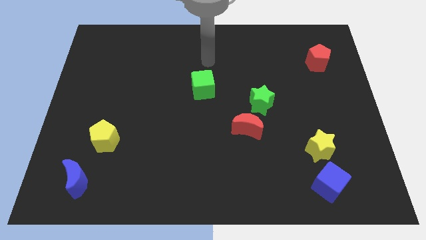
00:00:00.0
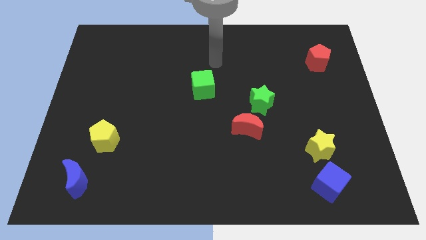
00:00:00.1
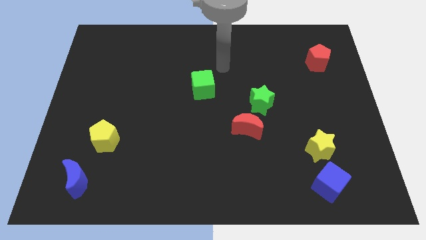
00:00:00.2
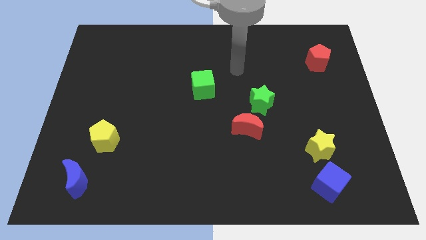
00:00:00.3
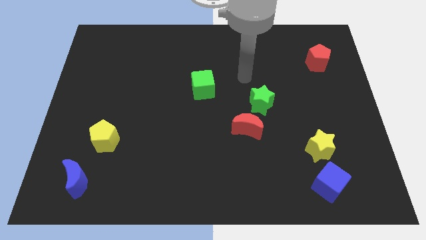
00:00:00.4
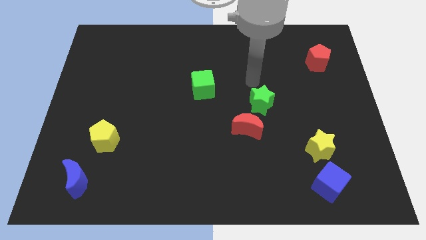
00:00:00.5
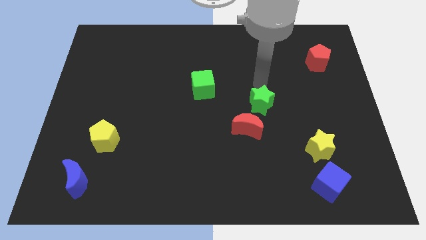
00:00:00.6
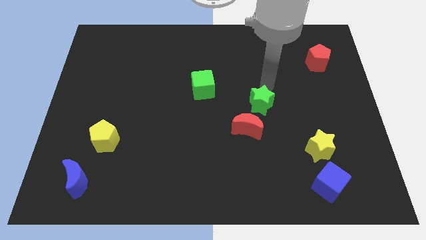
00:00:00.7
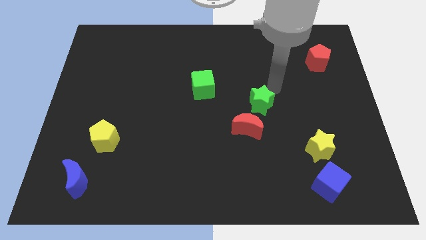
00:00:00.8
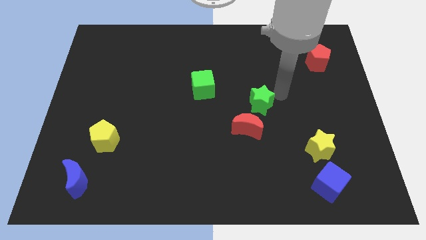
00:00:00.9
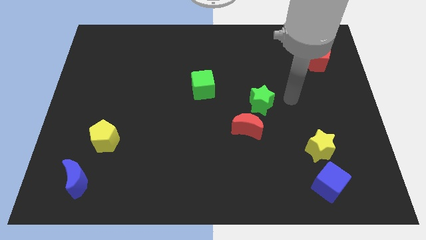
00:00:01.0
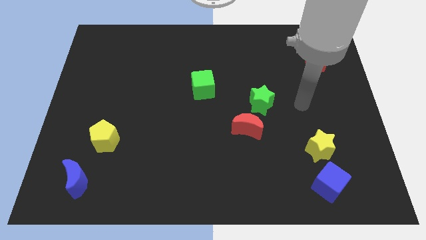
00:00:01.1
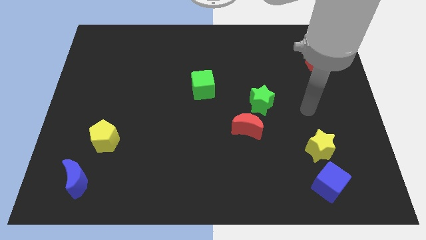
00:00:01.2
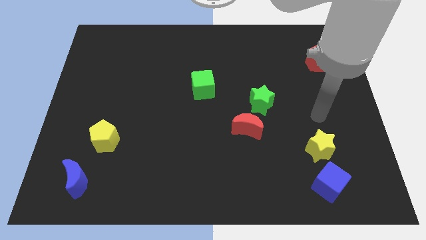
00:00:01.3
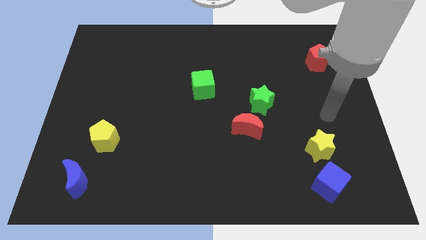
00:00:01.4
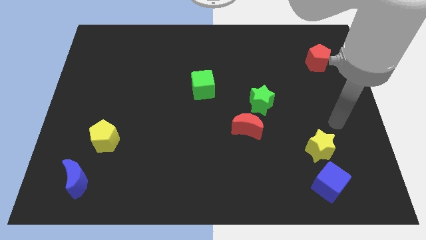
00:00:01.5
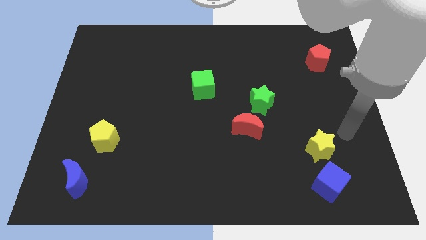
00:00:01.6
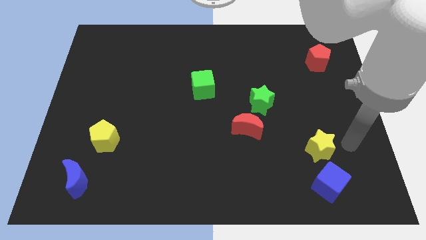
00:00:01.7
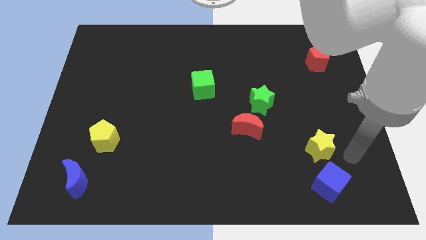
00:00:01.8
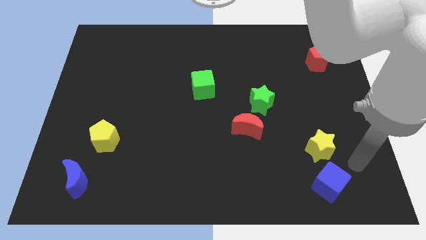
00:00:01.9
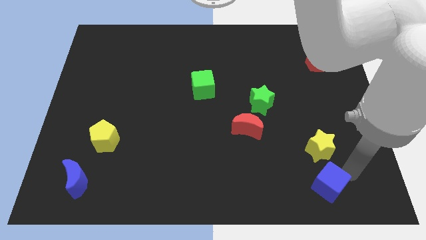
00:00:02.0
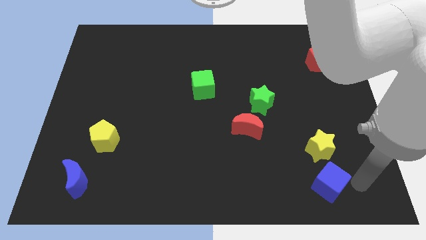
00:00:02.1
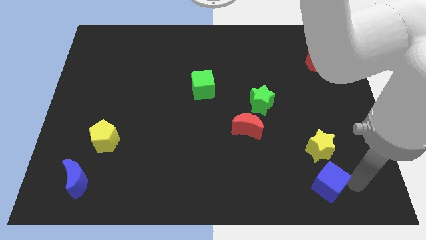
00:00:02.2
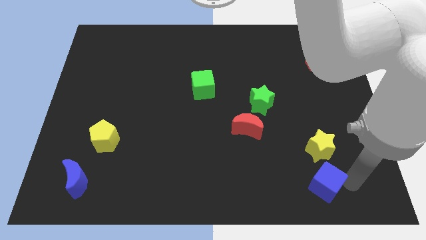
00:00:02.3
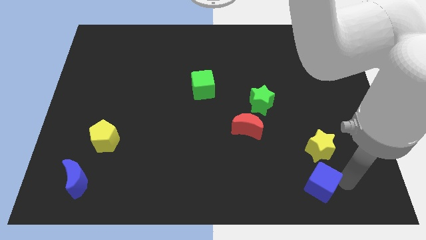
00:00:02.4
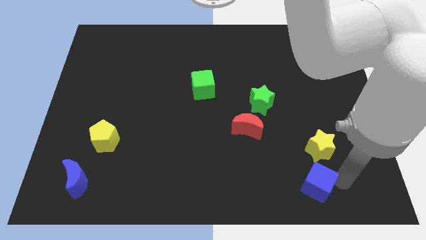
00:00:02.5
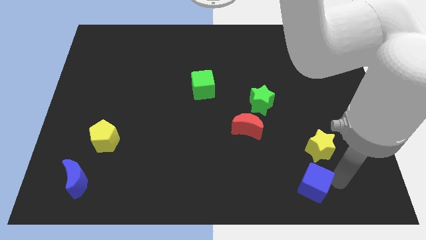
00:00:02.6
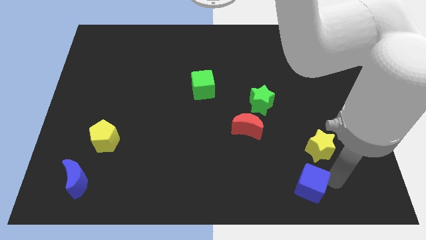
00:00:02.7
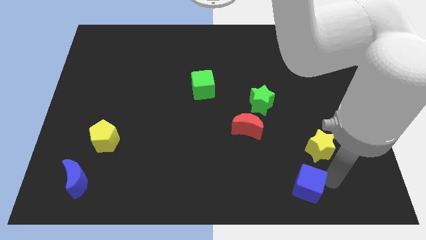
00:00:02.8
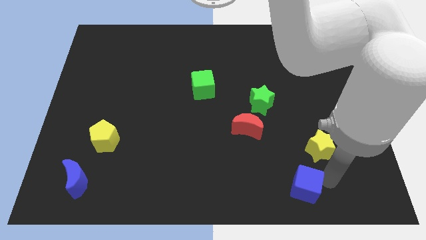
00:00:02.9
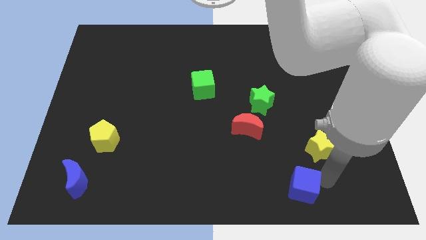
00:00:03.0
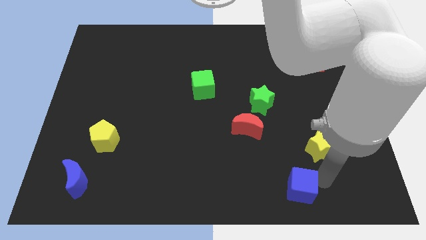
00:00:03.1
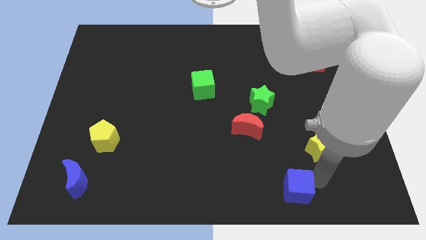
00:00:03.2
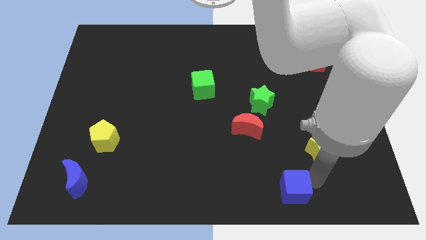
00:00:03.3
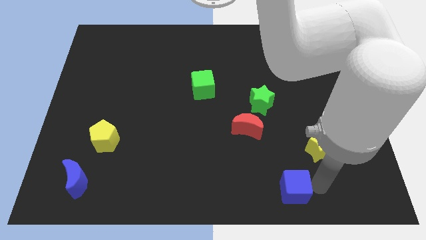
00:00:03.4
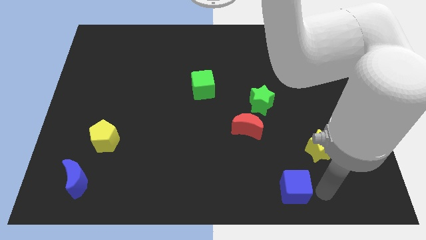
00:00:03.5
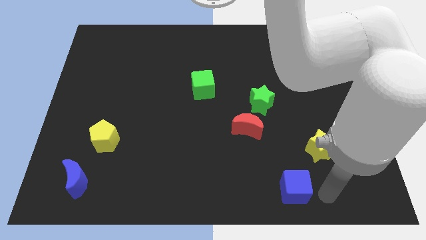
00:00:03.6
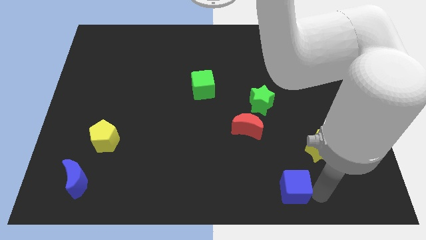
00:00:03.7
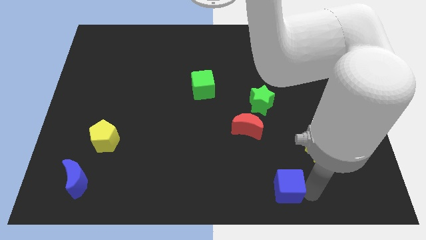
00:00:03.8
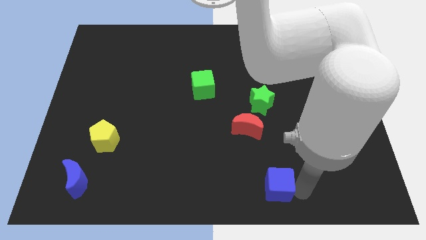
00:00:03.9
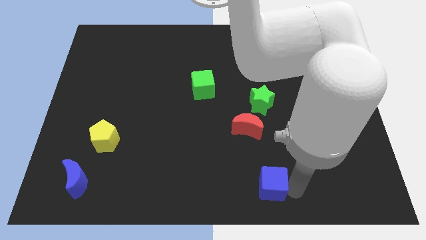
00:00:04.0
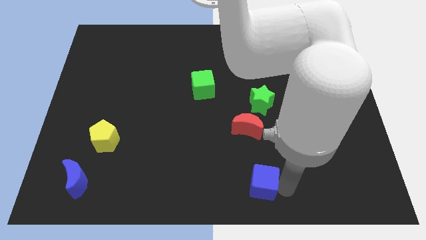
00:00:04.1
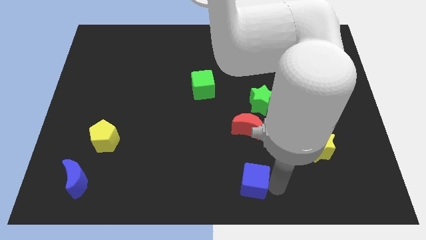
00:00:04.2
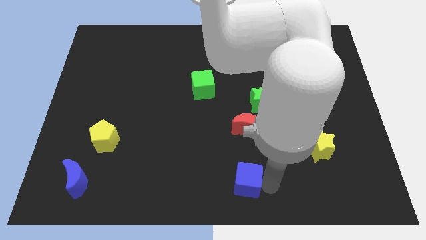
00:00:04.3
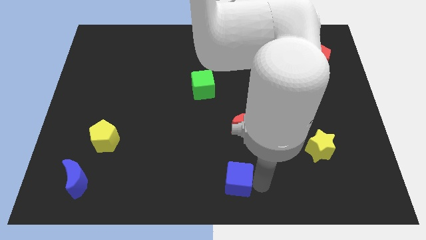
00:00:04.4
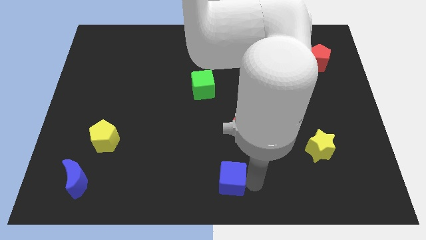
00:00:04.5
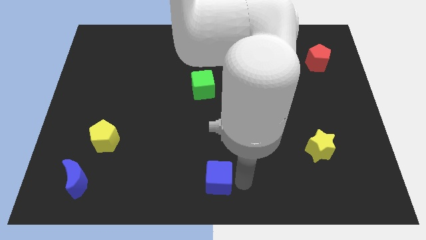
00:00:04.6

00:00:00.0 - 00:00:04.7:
slide the blue cube to the left

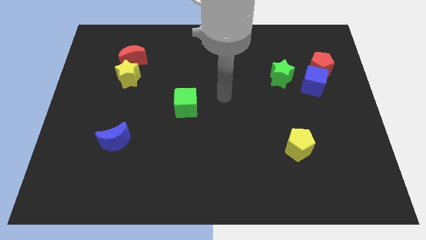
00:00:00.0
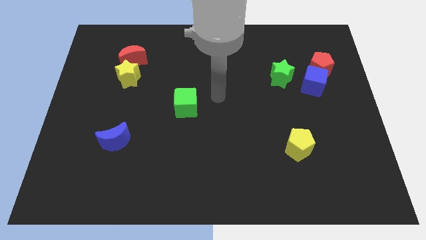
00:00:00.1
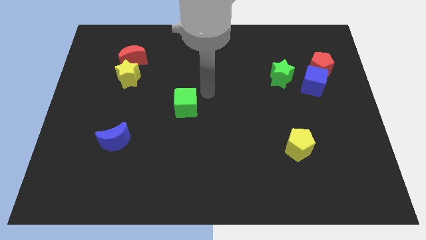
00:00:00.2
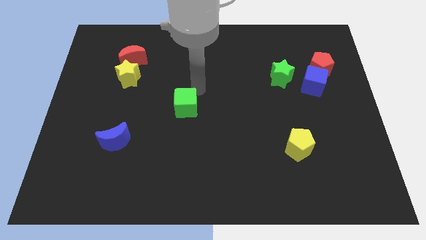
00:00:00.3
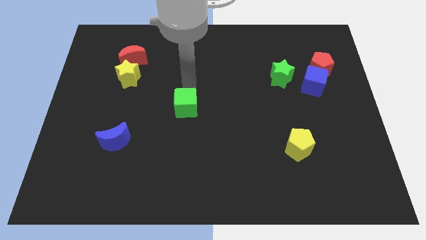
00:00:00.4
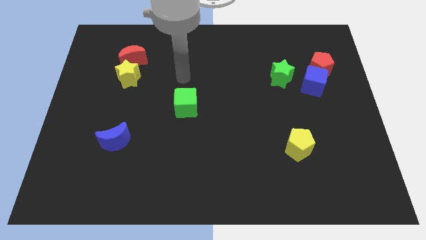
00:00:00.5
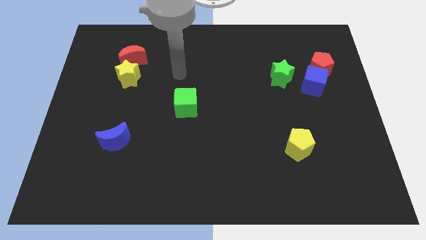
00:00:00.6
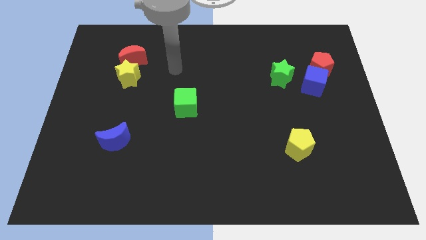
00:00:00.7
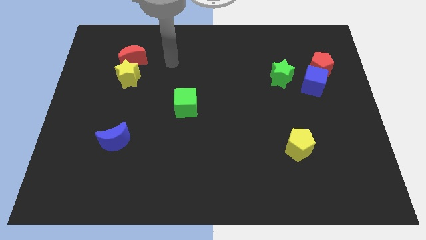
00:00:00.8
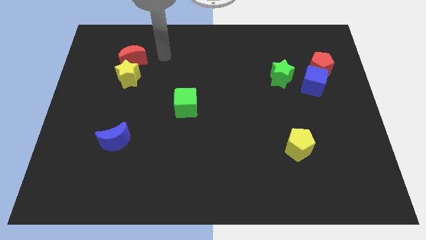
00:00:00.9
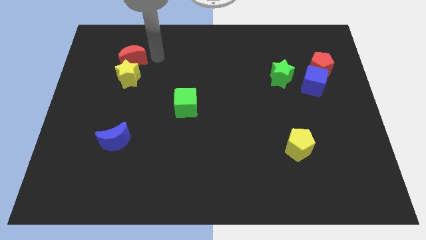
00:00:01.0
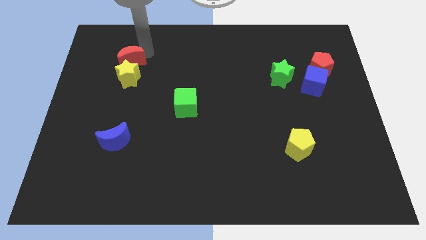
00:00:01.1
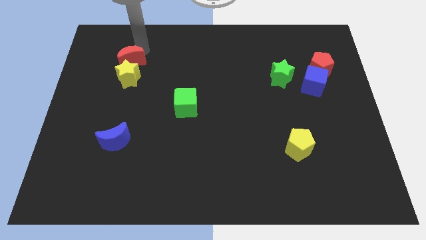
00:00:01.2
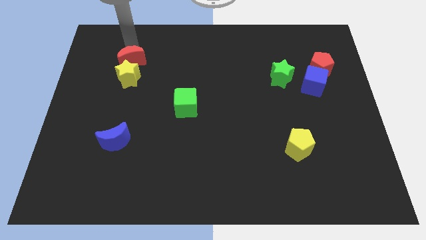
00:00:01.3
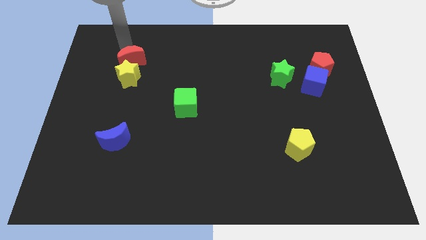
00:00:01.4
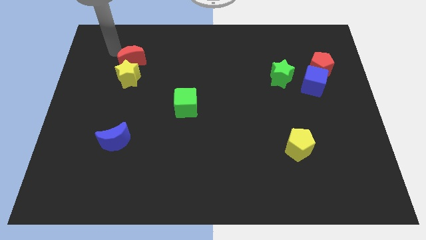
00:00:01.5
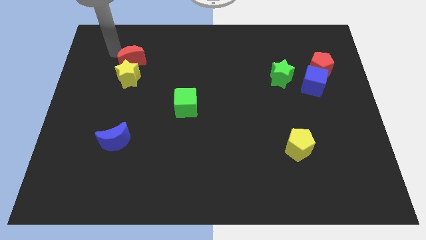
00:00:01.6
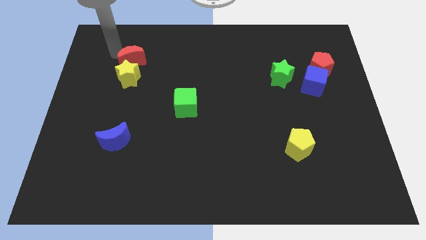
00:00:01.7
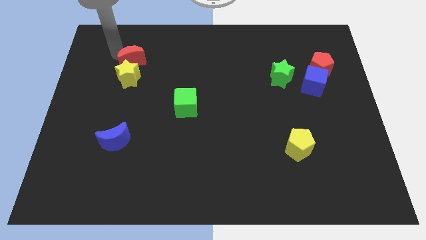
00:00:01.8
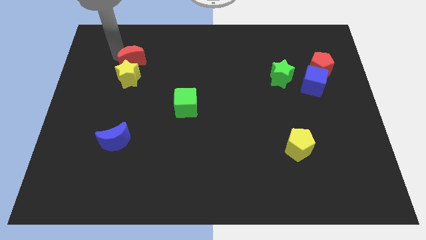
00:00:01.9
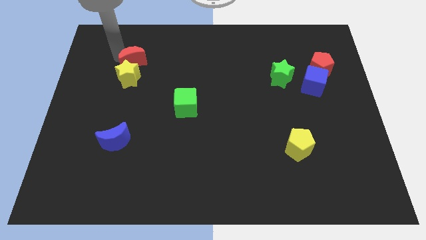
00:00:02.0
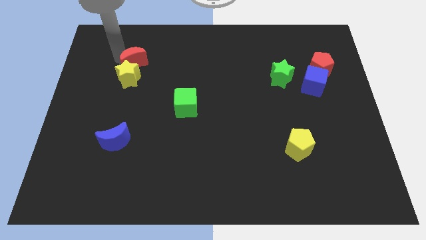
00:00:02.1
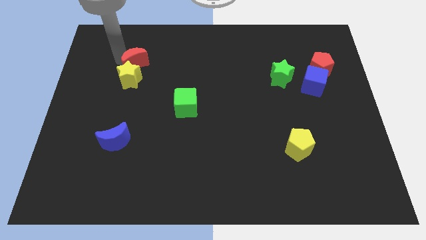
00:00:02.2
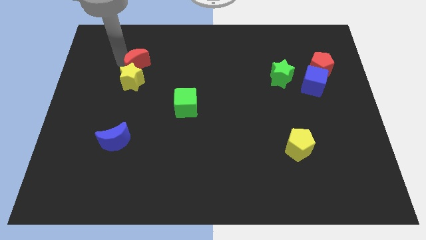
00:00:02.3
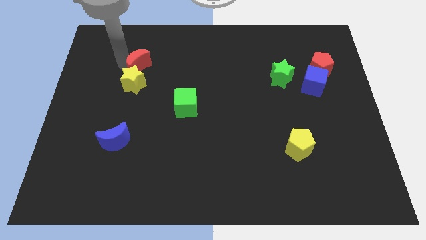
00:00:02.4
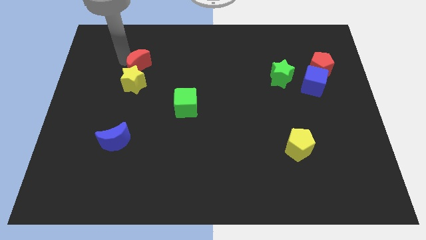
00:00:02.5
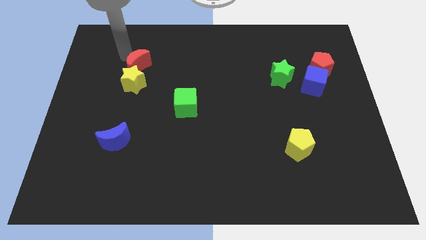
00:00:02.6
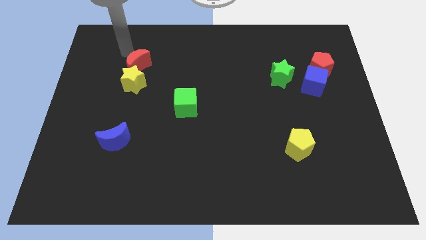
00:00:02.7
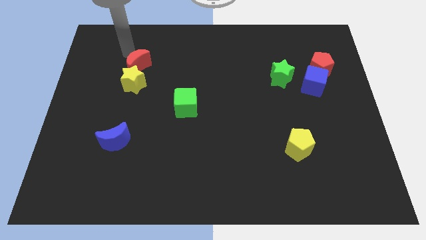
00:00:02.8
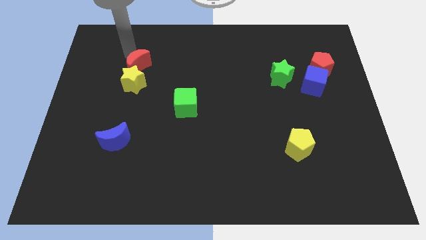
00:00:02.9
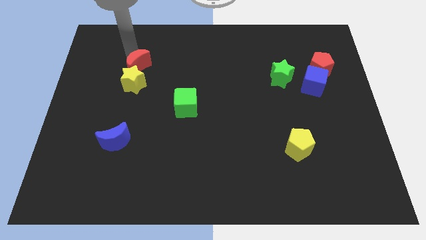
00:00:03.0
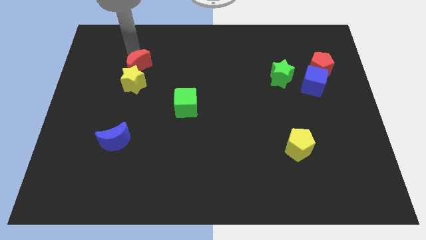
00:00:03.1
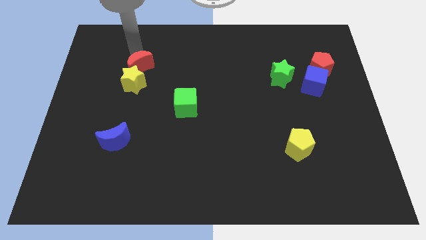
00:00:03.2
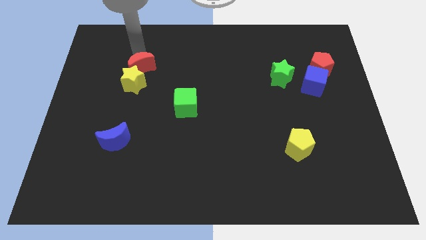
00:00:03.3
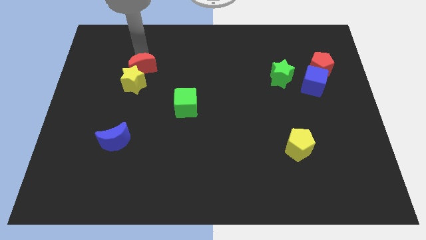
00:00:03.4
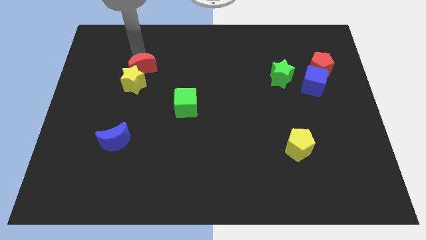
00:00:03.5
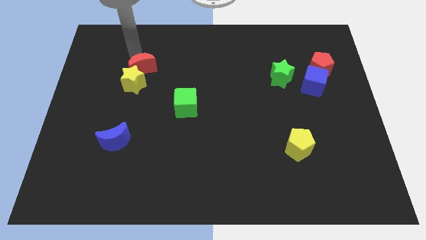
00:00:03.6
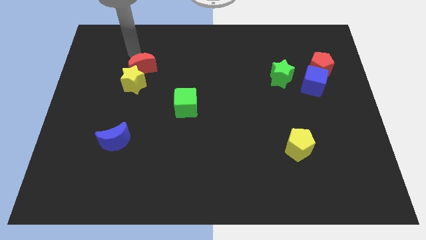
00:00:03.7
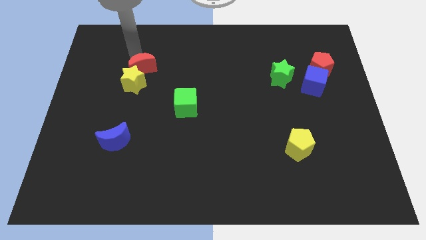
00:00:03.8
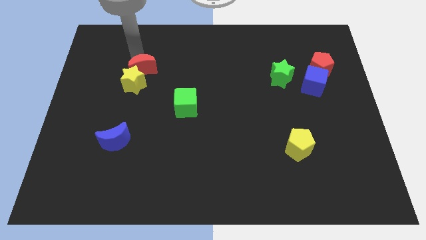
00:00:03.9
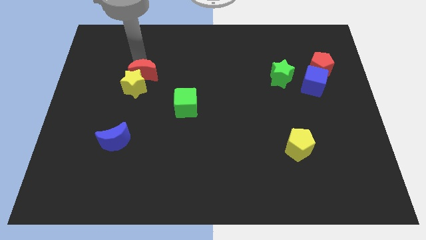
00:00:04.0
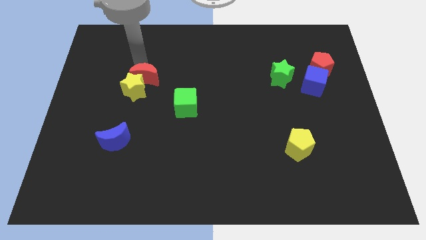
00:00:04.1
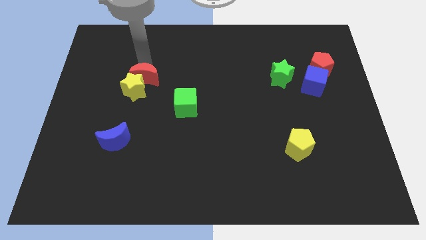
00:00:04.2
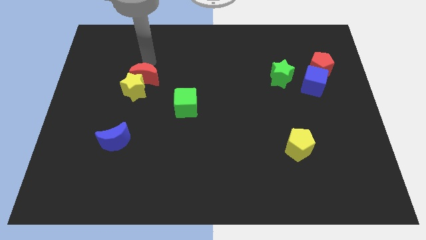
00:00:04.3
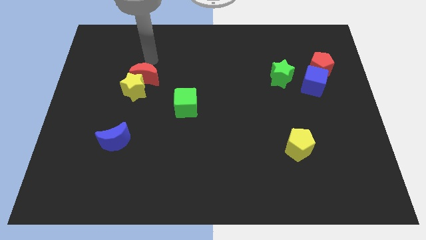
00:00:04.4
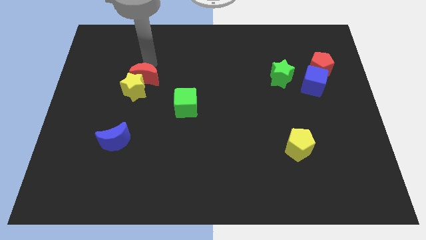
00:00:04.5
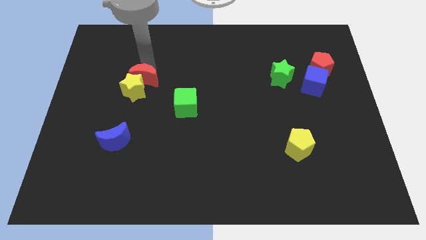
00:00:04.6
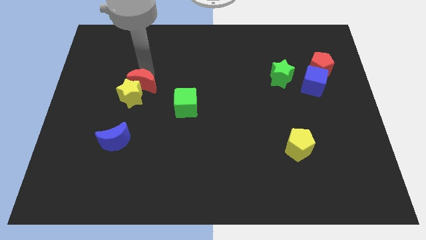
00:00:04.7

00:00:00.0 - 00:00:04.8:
slightly push the red moon downwards
